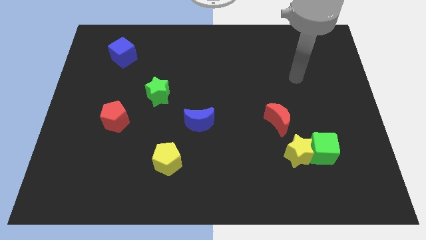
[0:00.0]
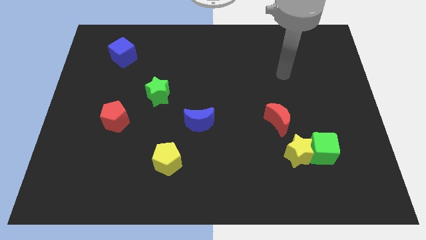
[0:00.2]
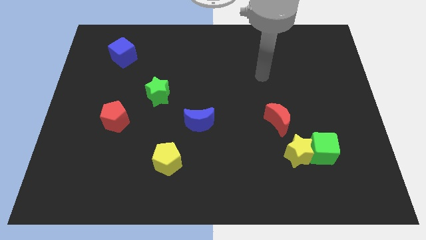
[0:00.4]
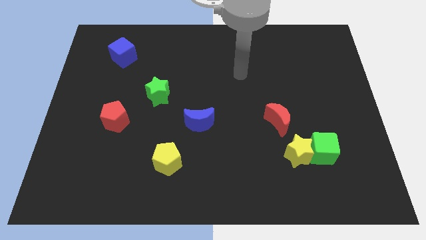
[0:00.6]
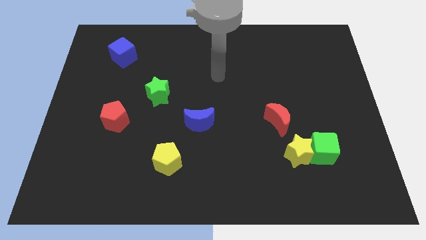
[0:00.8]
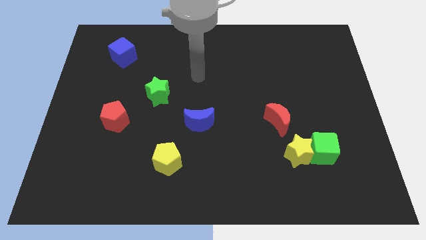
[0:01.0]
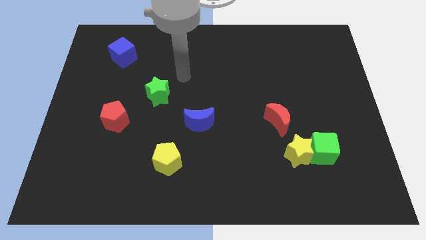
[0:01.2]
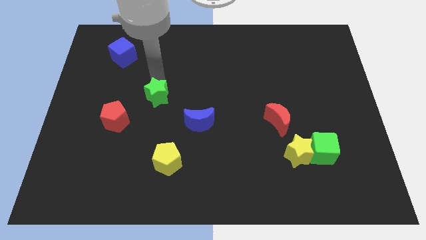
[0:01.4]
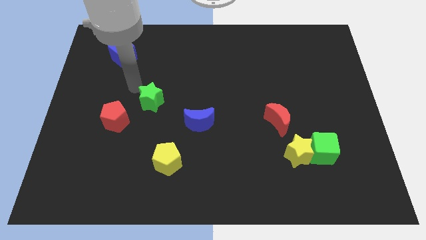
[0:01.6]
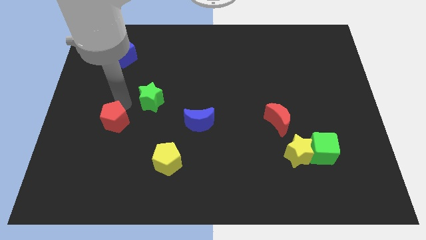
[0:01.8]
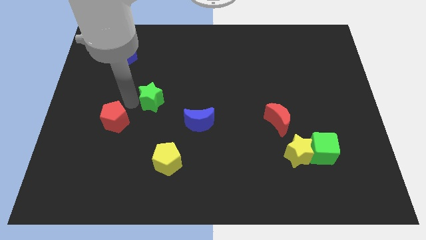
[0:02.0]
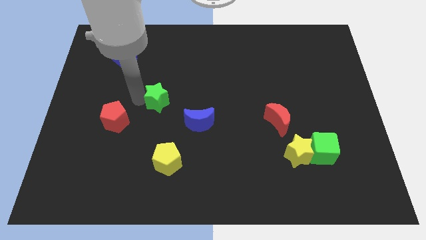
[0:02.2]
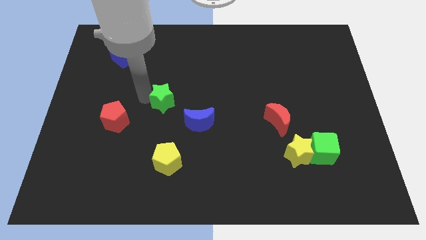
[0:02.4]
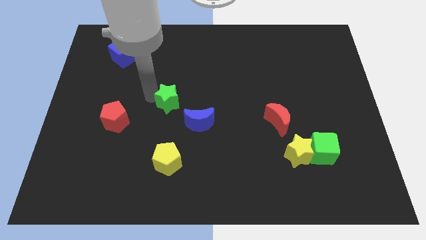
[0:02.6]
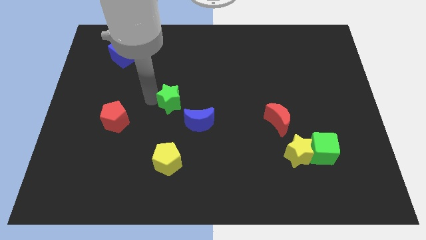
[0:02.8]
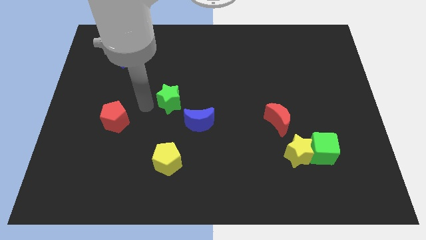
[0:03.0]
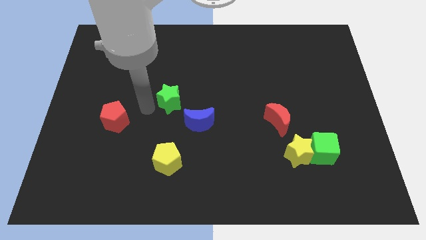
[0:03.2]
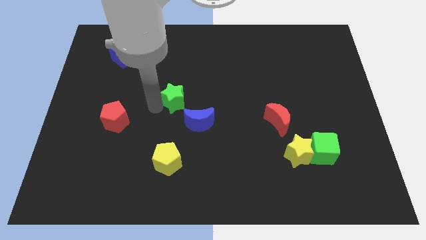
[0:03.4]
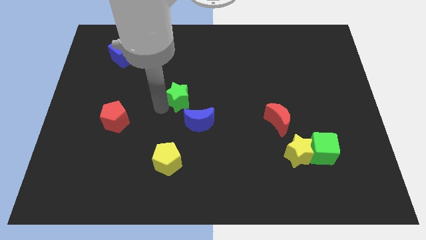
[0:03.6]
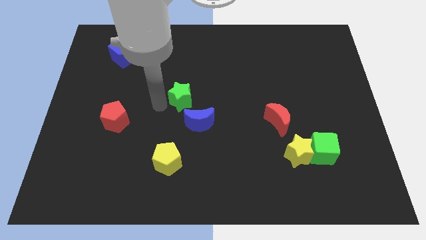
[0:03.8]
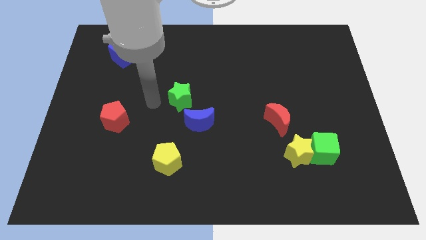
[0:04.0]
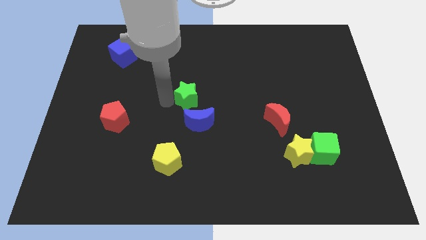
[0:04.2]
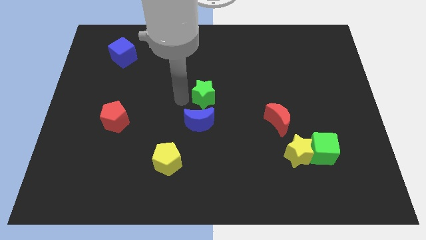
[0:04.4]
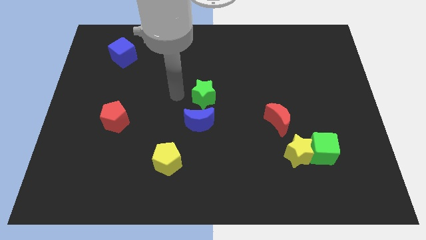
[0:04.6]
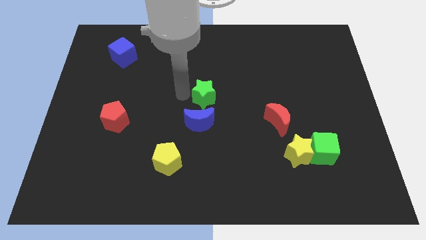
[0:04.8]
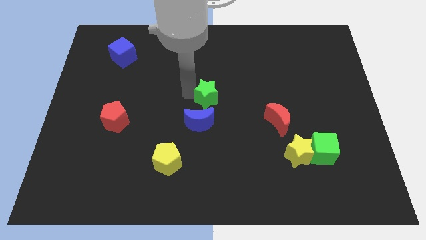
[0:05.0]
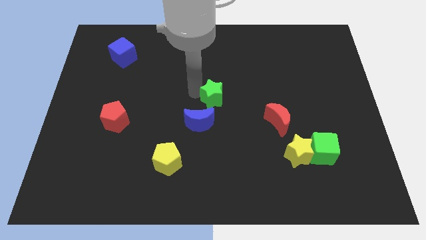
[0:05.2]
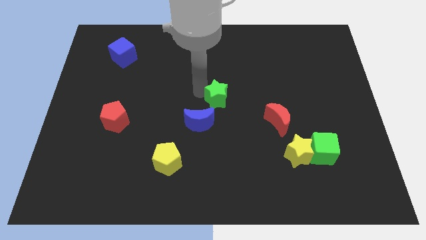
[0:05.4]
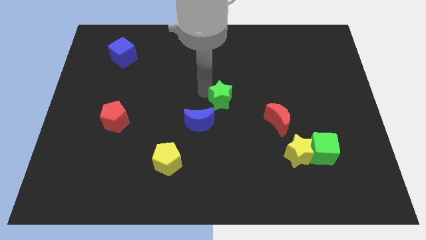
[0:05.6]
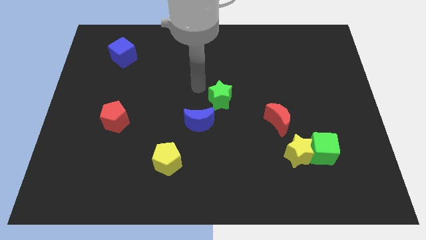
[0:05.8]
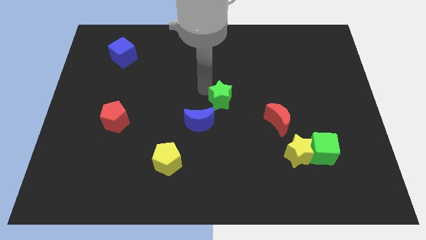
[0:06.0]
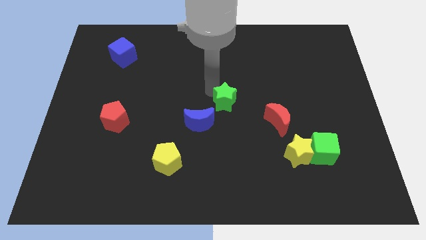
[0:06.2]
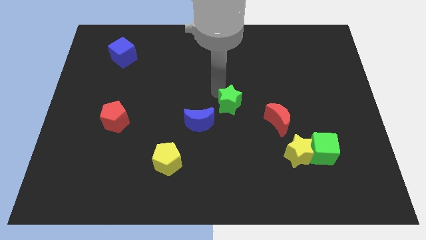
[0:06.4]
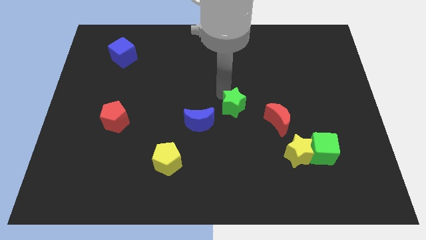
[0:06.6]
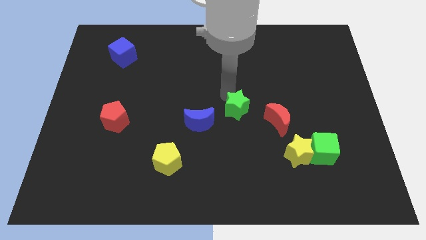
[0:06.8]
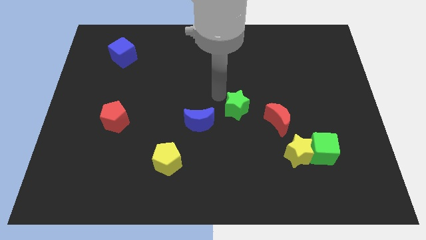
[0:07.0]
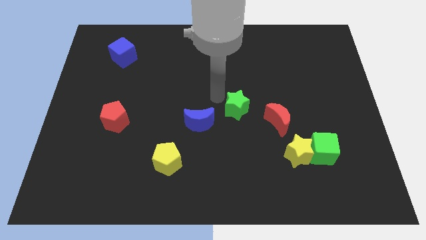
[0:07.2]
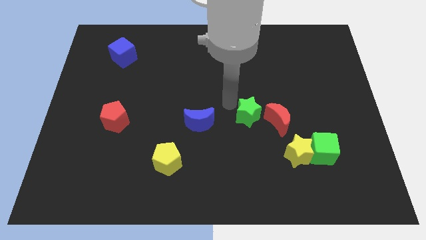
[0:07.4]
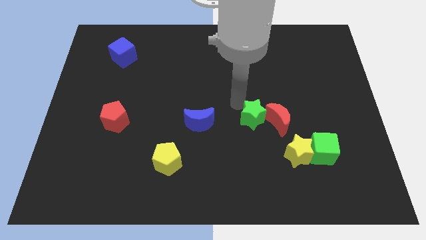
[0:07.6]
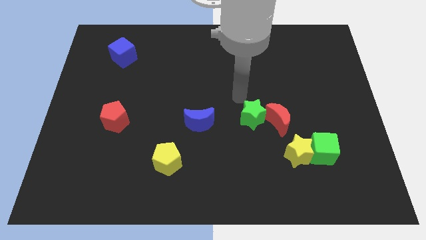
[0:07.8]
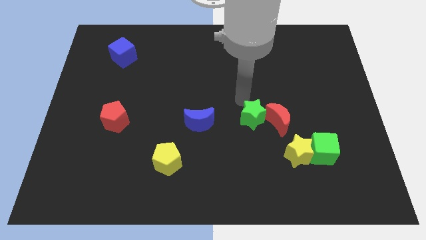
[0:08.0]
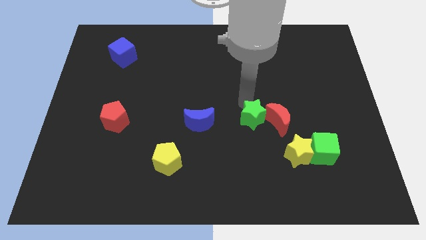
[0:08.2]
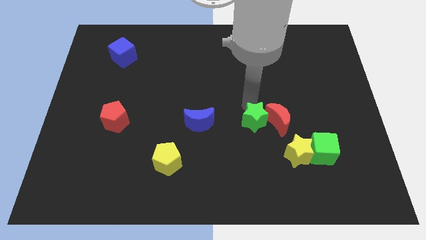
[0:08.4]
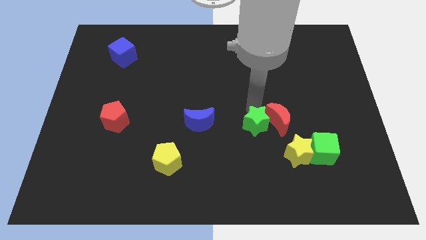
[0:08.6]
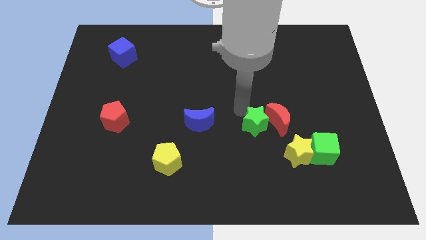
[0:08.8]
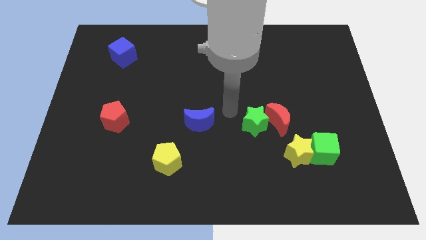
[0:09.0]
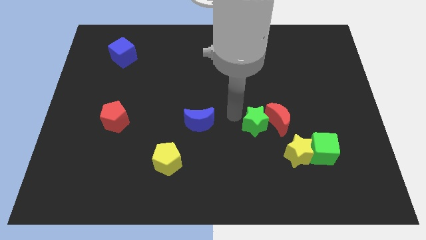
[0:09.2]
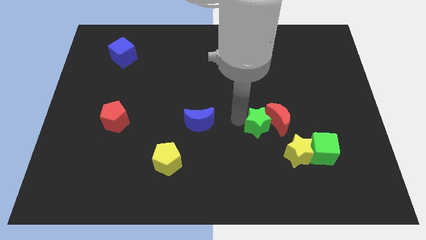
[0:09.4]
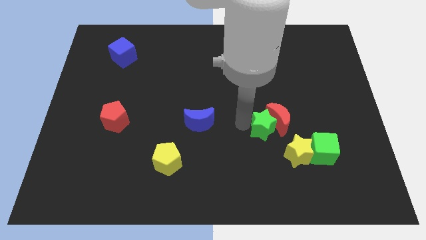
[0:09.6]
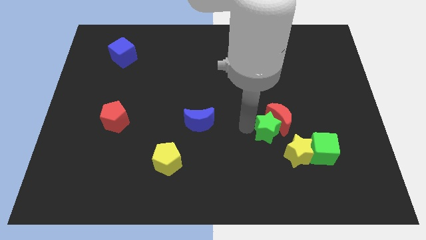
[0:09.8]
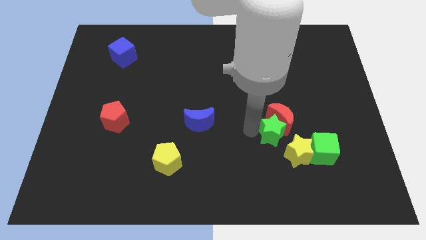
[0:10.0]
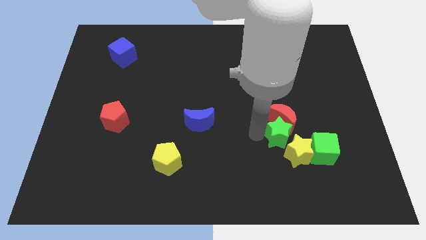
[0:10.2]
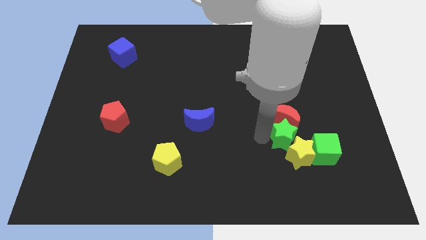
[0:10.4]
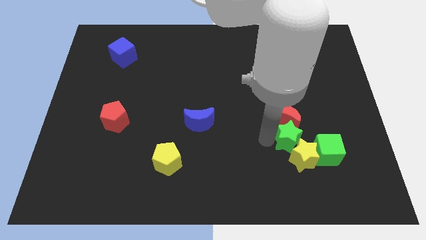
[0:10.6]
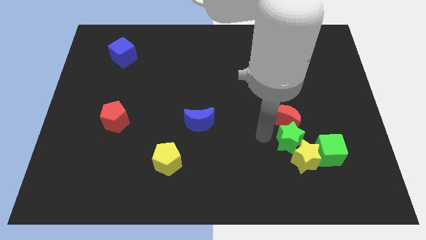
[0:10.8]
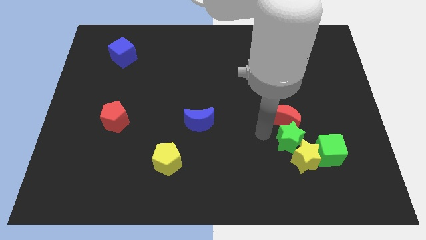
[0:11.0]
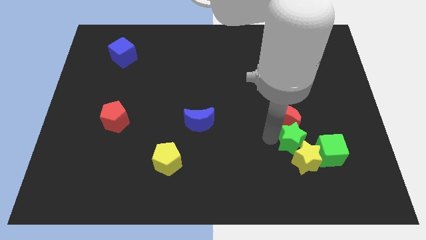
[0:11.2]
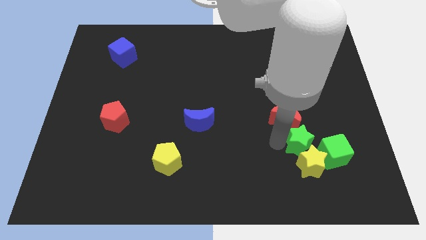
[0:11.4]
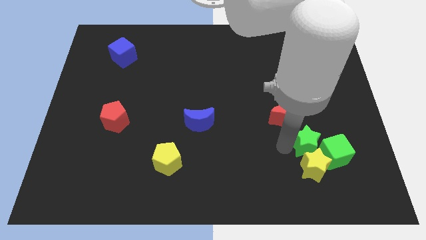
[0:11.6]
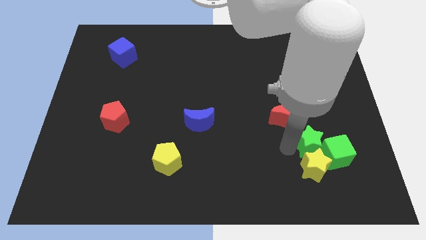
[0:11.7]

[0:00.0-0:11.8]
slide the green star to the green cube

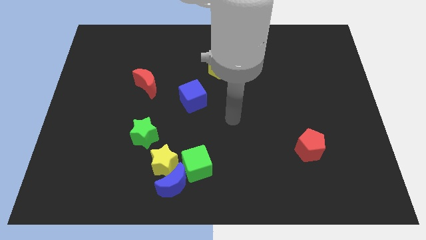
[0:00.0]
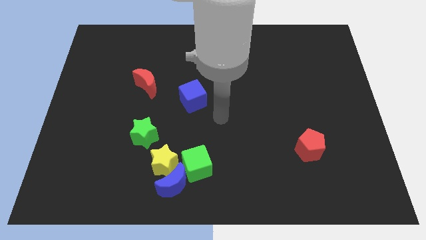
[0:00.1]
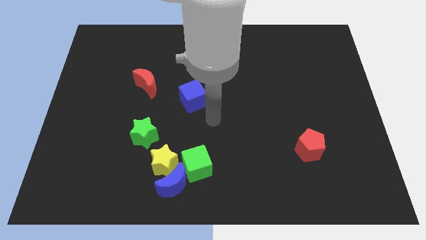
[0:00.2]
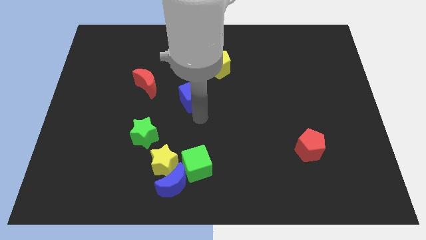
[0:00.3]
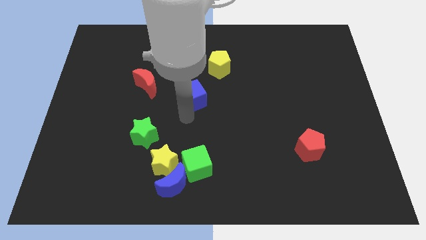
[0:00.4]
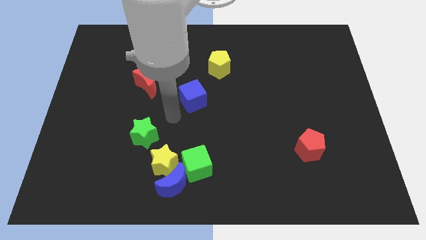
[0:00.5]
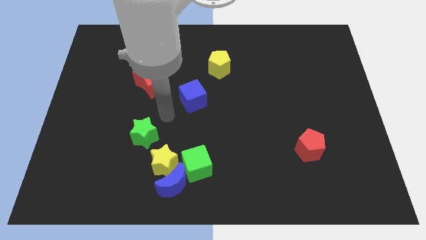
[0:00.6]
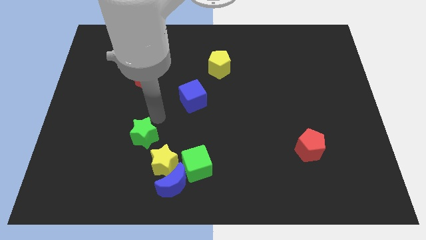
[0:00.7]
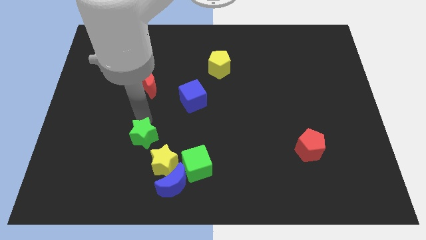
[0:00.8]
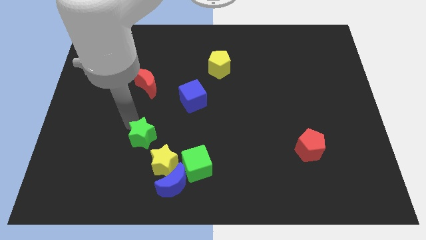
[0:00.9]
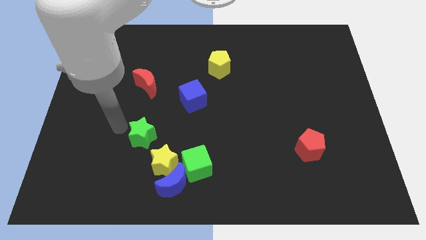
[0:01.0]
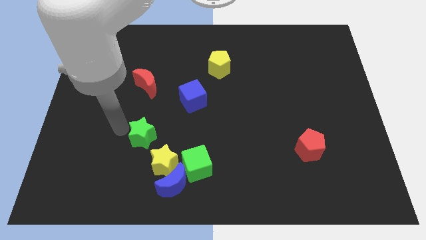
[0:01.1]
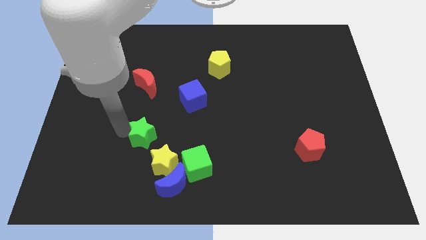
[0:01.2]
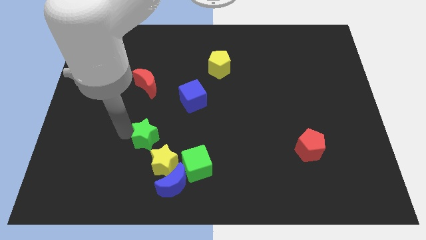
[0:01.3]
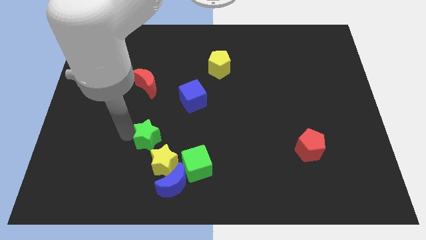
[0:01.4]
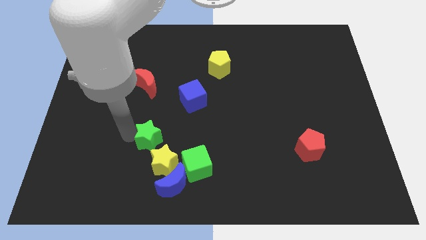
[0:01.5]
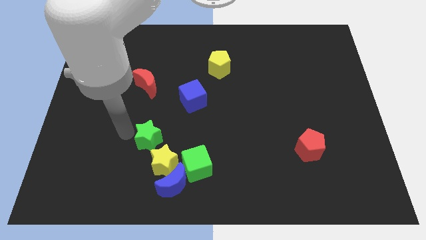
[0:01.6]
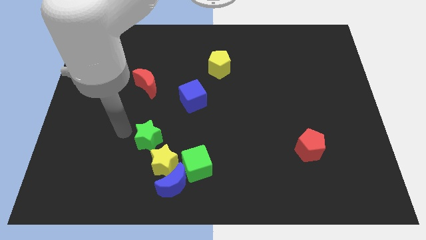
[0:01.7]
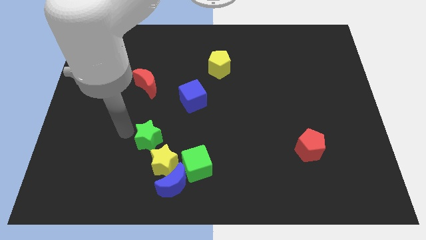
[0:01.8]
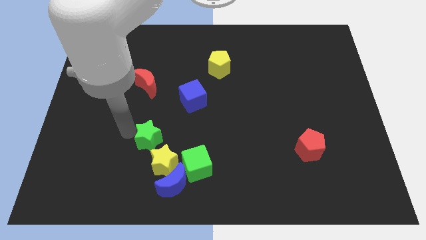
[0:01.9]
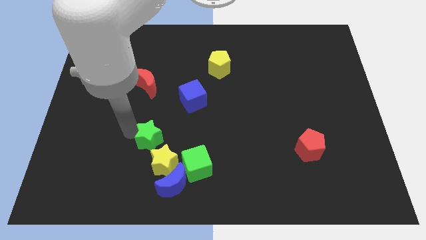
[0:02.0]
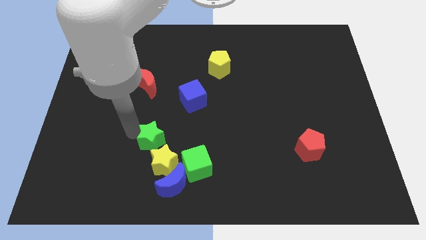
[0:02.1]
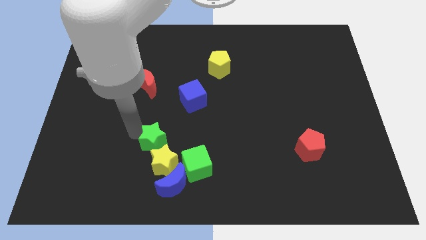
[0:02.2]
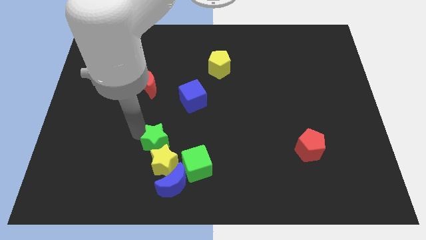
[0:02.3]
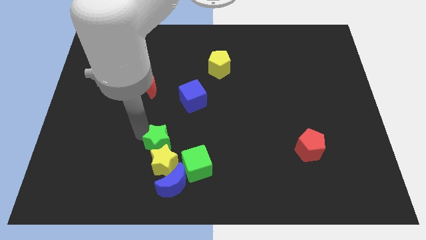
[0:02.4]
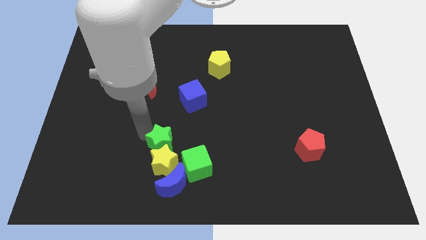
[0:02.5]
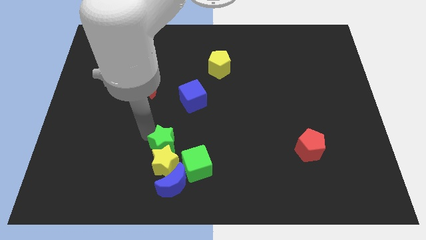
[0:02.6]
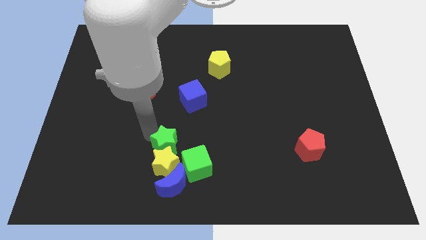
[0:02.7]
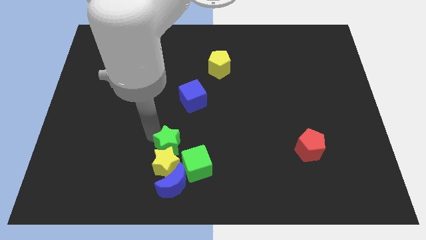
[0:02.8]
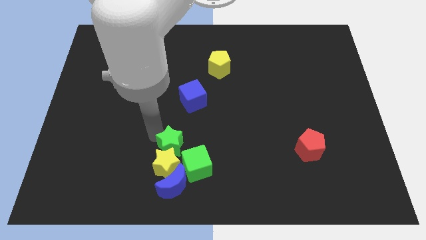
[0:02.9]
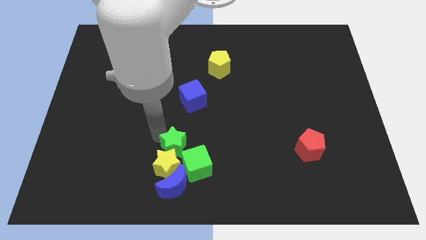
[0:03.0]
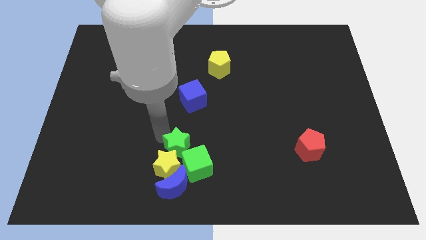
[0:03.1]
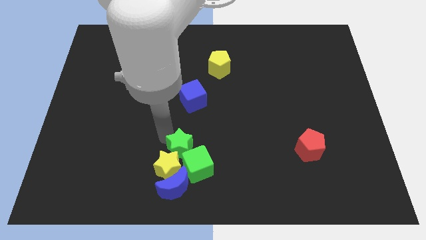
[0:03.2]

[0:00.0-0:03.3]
slide the green star close to the green cube
